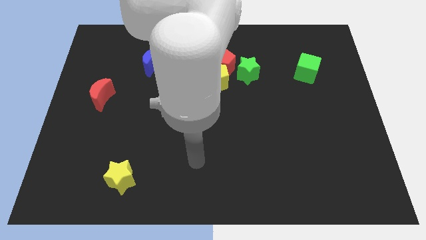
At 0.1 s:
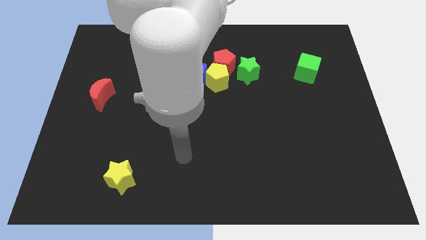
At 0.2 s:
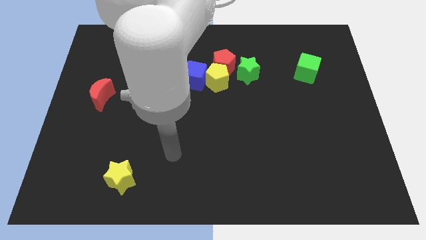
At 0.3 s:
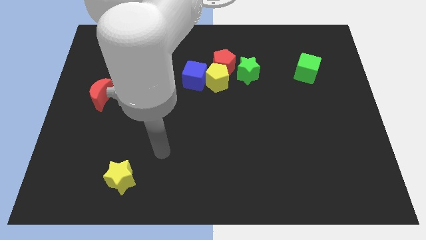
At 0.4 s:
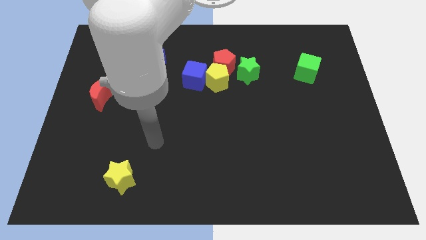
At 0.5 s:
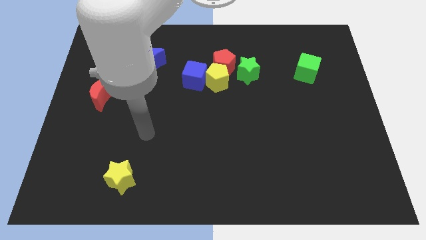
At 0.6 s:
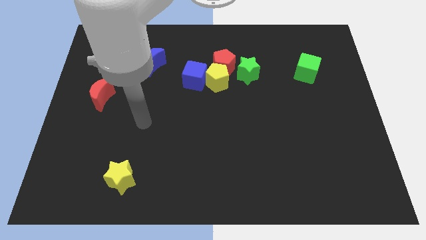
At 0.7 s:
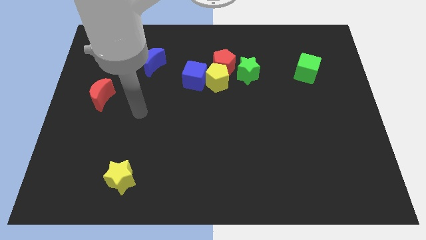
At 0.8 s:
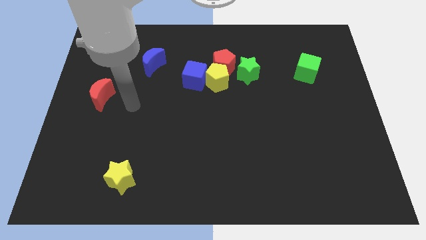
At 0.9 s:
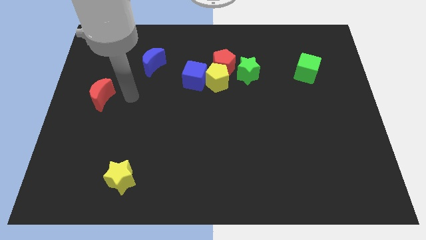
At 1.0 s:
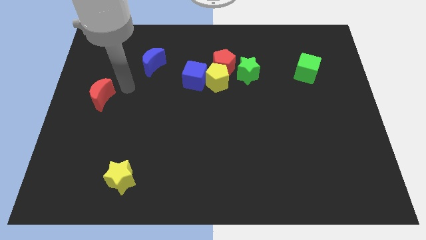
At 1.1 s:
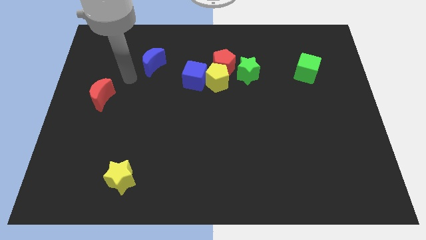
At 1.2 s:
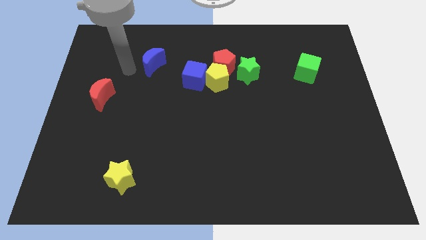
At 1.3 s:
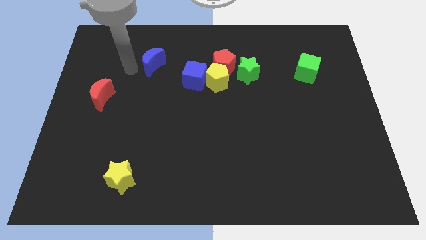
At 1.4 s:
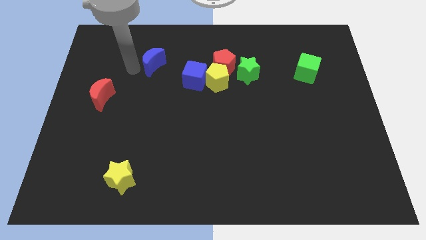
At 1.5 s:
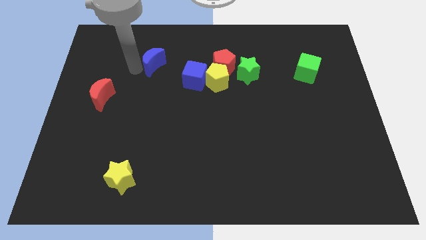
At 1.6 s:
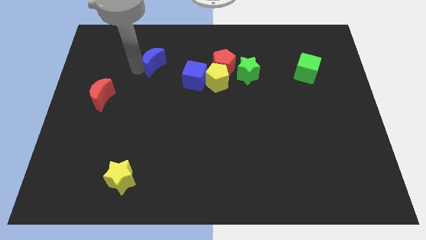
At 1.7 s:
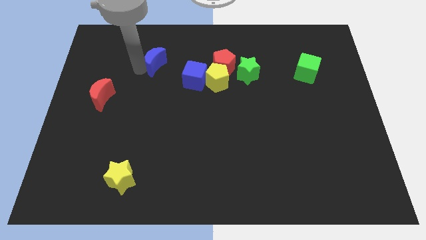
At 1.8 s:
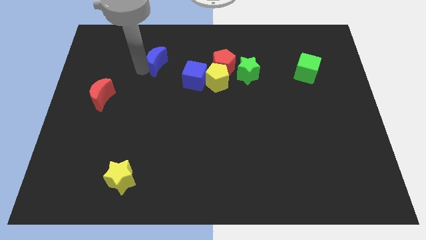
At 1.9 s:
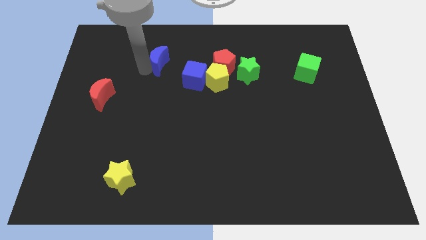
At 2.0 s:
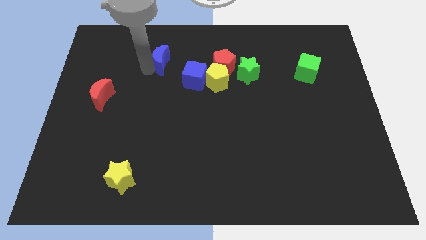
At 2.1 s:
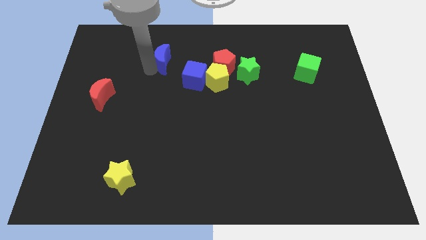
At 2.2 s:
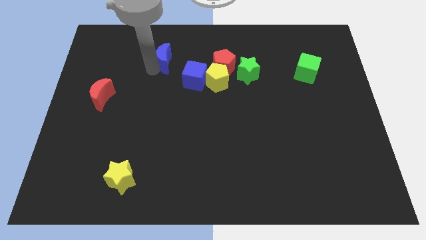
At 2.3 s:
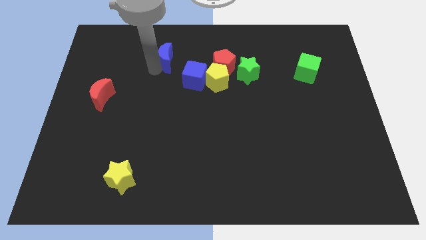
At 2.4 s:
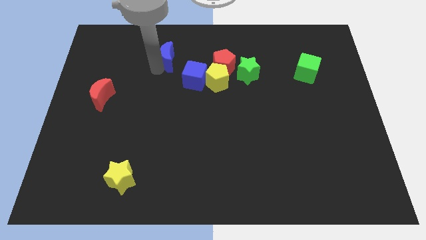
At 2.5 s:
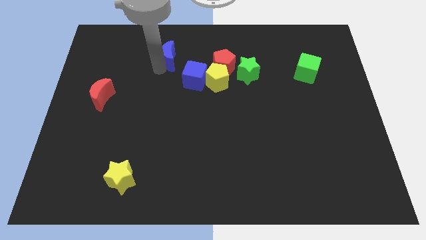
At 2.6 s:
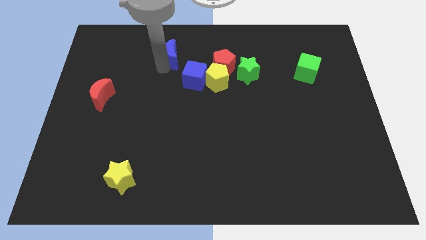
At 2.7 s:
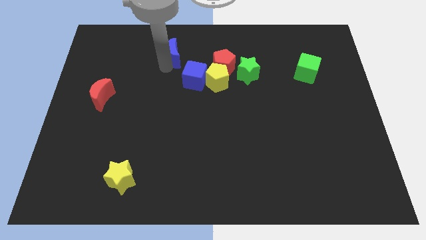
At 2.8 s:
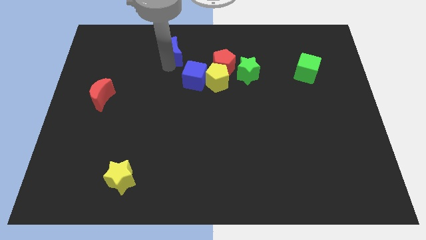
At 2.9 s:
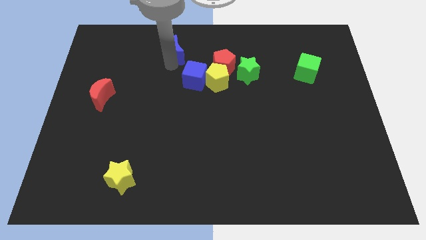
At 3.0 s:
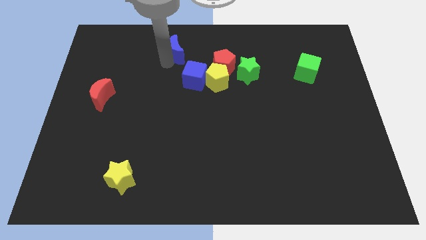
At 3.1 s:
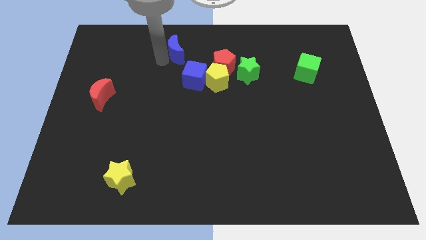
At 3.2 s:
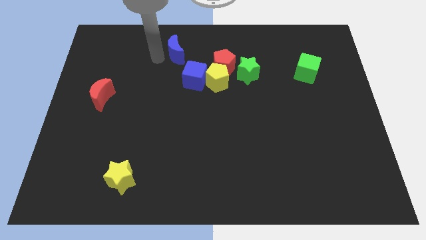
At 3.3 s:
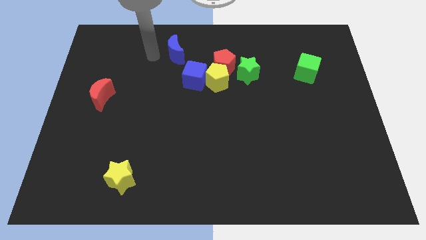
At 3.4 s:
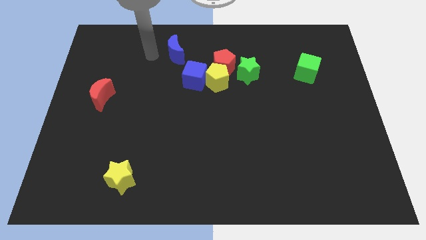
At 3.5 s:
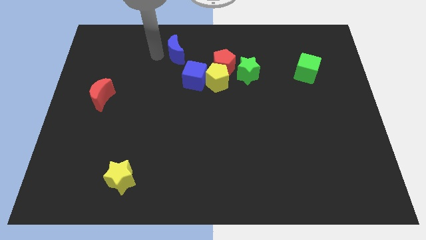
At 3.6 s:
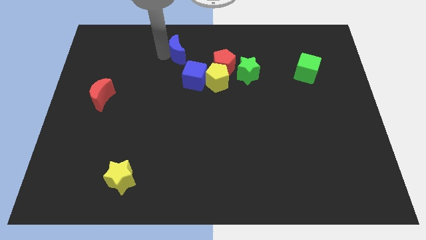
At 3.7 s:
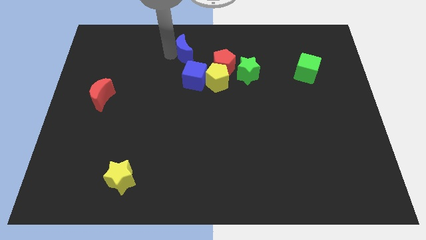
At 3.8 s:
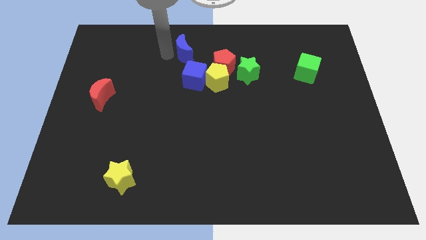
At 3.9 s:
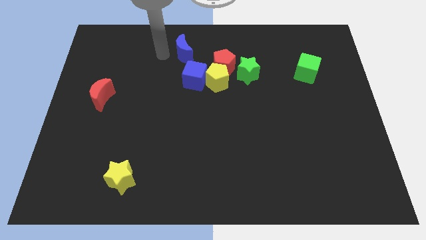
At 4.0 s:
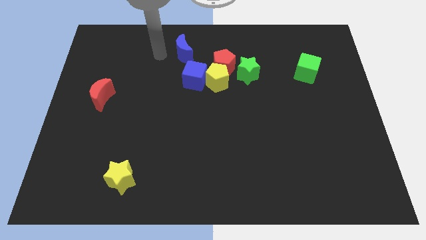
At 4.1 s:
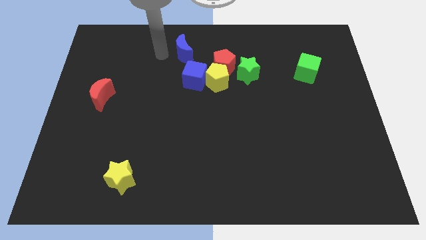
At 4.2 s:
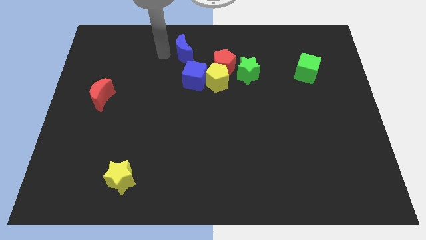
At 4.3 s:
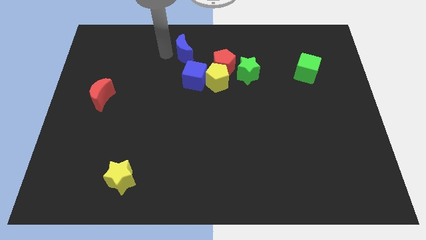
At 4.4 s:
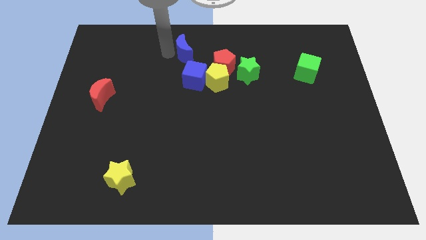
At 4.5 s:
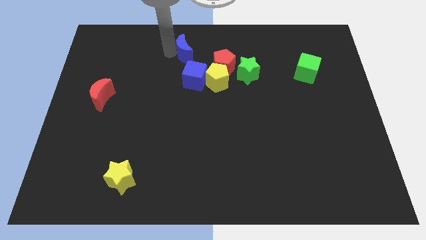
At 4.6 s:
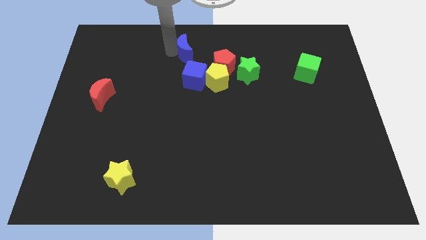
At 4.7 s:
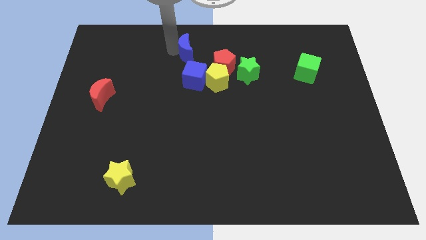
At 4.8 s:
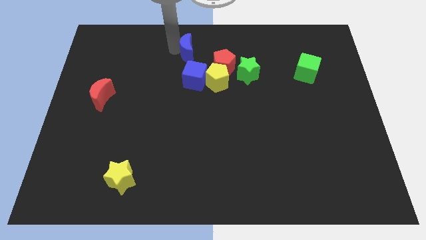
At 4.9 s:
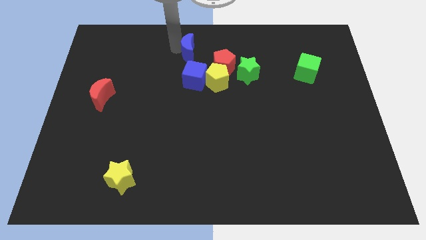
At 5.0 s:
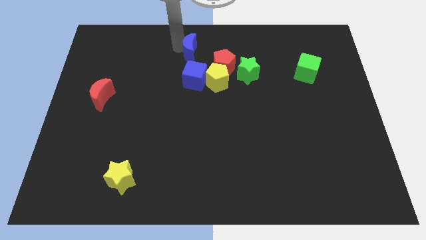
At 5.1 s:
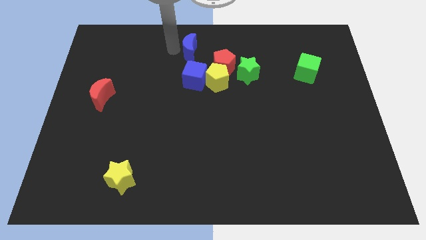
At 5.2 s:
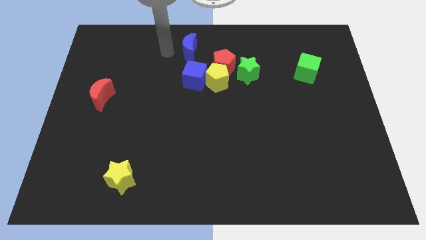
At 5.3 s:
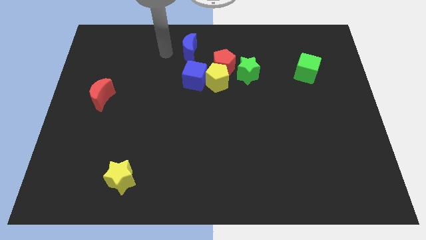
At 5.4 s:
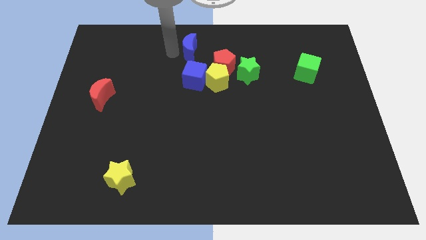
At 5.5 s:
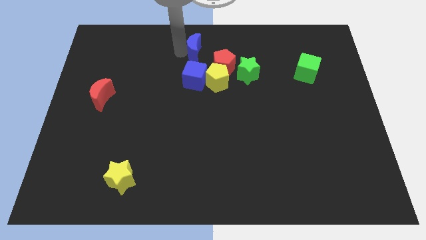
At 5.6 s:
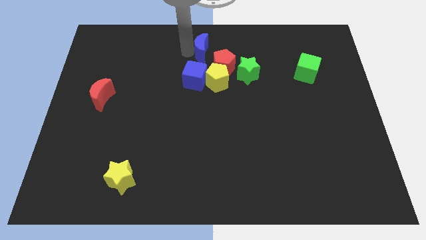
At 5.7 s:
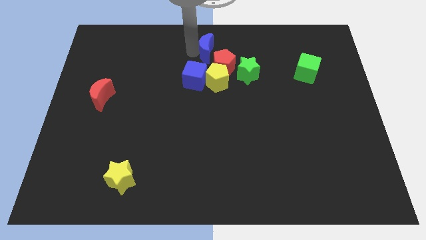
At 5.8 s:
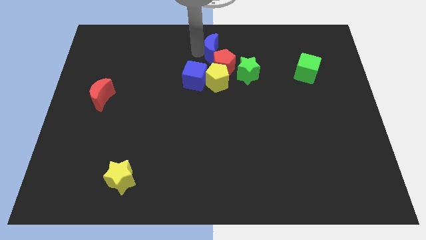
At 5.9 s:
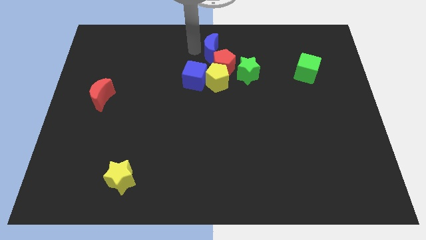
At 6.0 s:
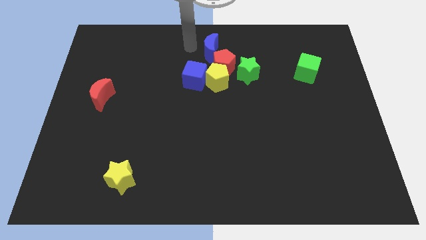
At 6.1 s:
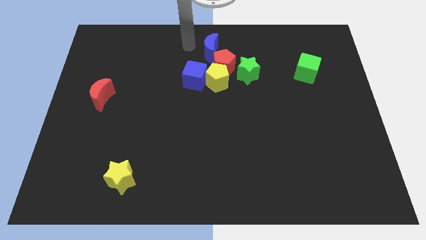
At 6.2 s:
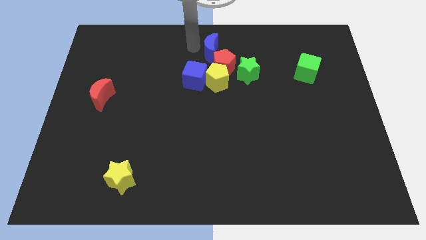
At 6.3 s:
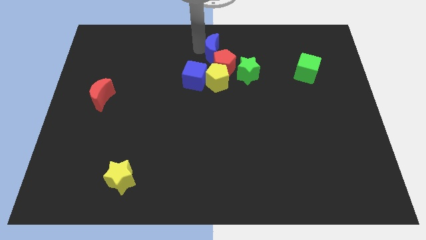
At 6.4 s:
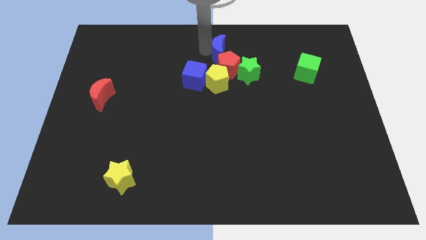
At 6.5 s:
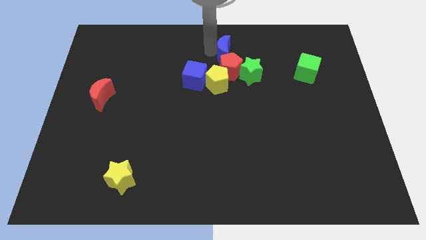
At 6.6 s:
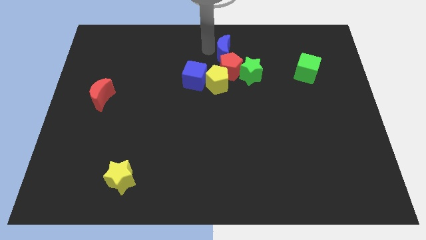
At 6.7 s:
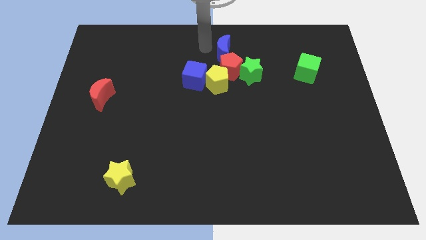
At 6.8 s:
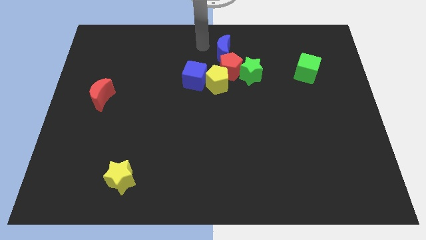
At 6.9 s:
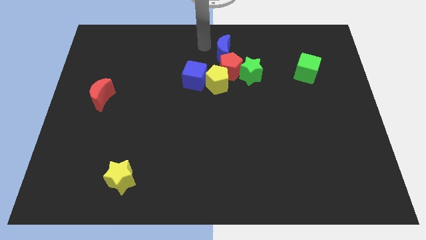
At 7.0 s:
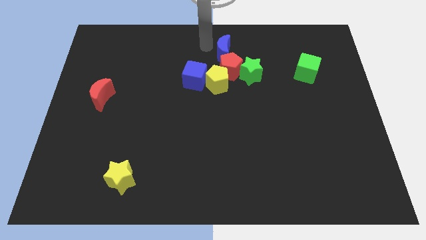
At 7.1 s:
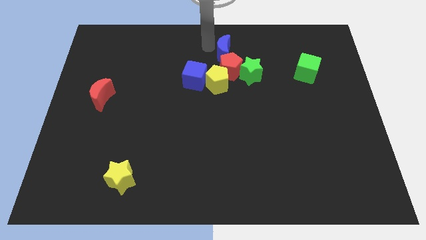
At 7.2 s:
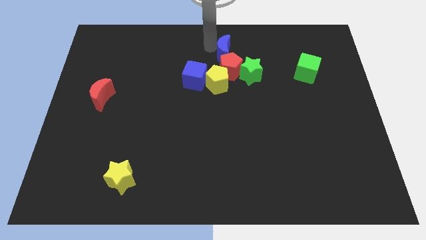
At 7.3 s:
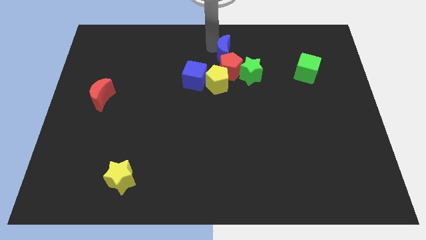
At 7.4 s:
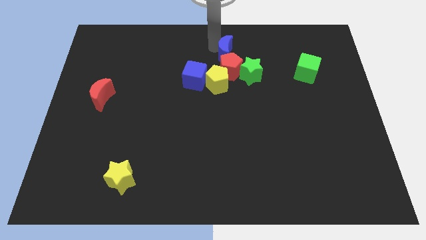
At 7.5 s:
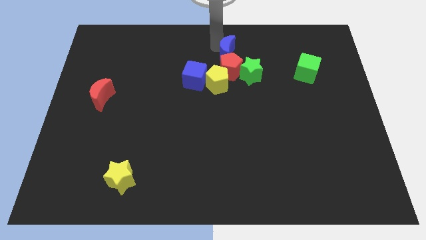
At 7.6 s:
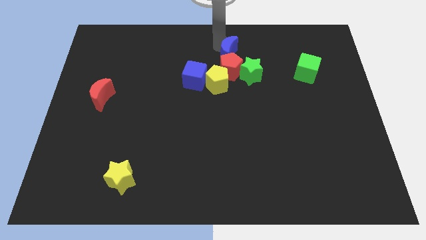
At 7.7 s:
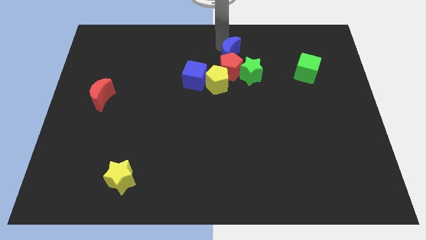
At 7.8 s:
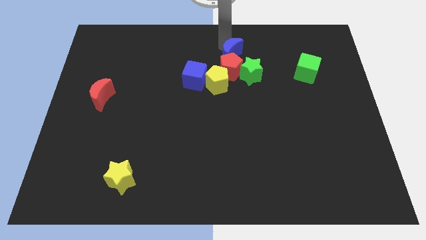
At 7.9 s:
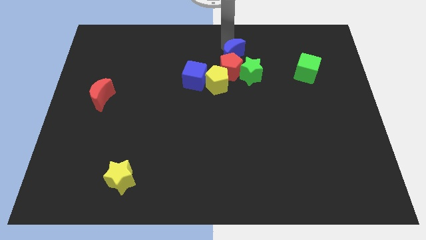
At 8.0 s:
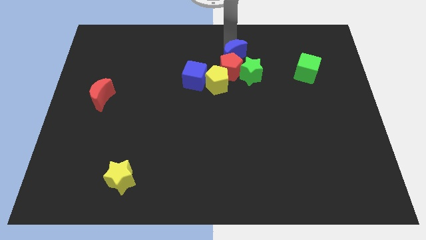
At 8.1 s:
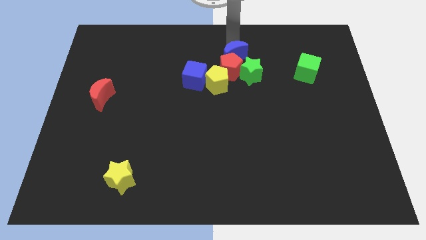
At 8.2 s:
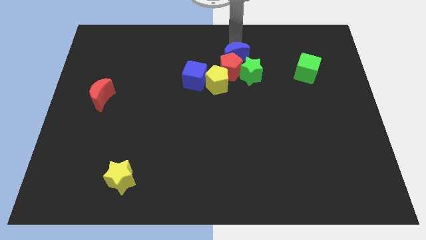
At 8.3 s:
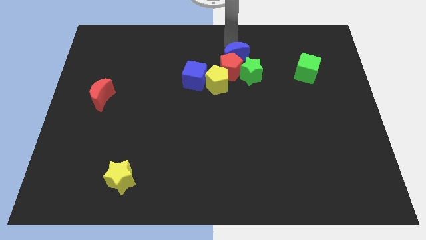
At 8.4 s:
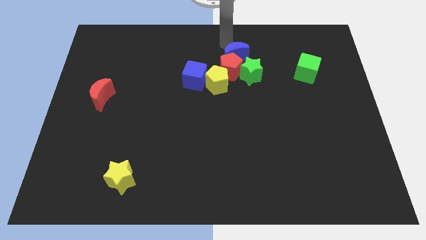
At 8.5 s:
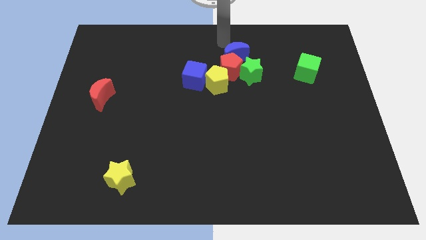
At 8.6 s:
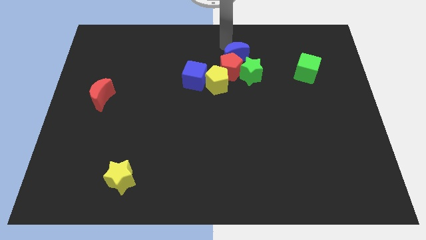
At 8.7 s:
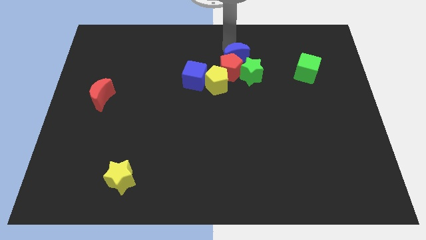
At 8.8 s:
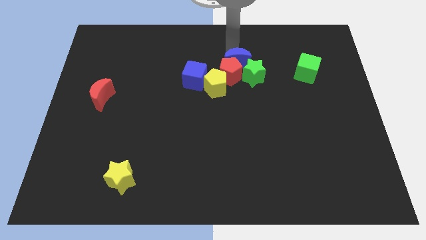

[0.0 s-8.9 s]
move the blue moon close to the green star
